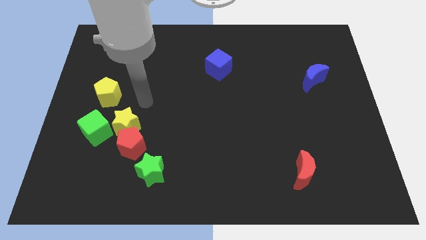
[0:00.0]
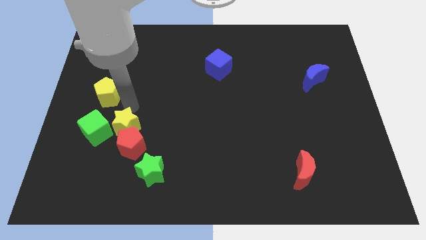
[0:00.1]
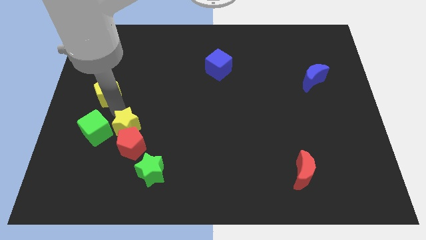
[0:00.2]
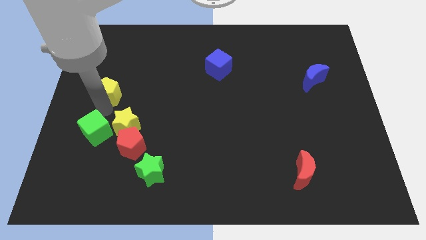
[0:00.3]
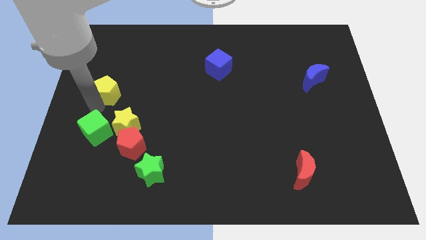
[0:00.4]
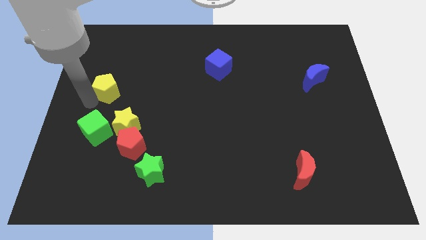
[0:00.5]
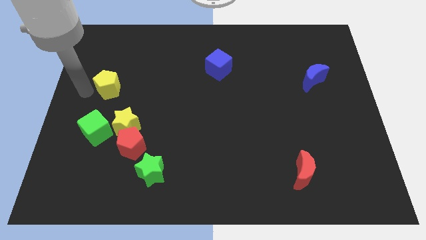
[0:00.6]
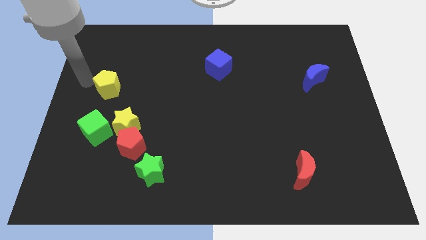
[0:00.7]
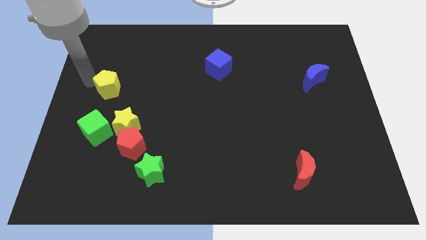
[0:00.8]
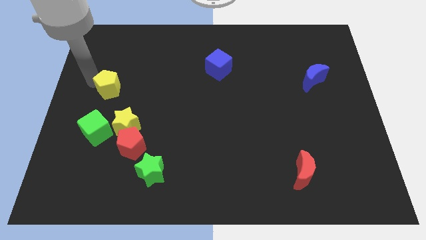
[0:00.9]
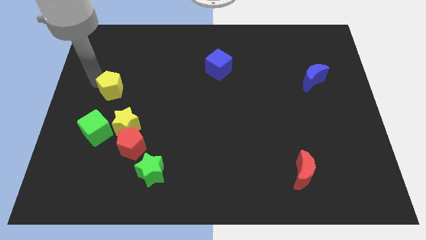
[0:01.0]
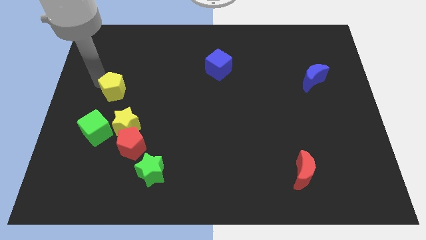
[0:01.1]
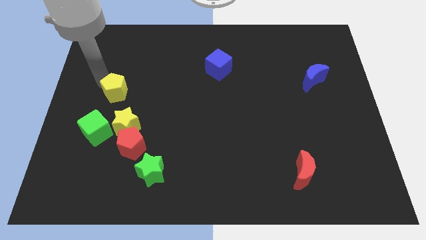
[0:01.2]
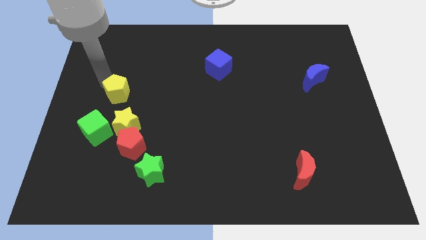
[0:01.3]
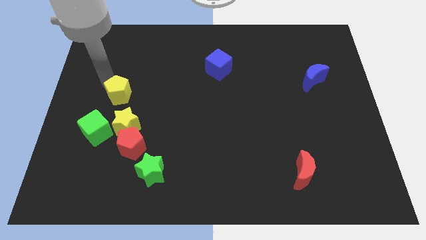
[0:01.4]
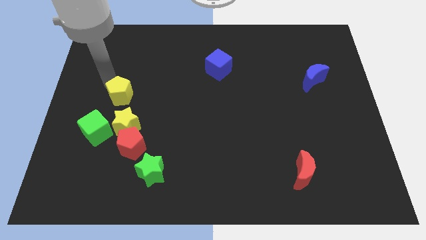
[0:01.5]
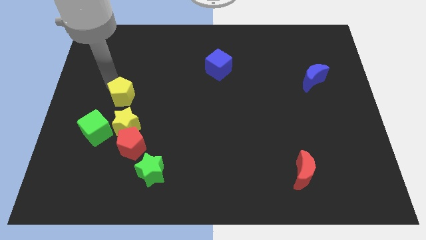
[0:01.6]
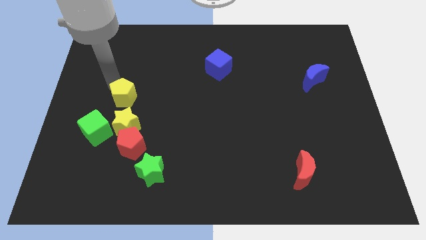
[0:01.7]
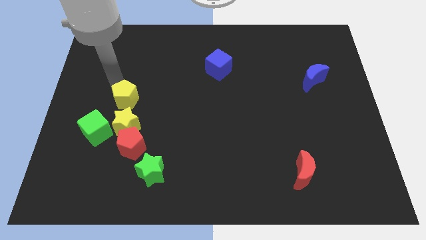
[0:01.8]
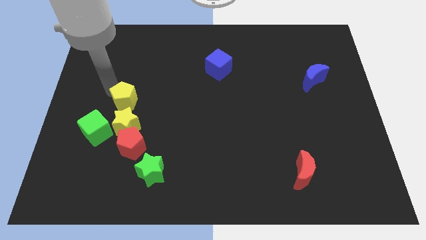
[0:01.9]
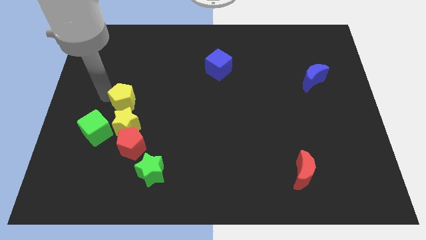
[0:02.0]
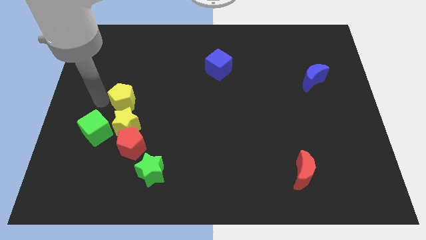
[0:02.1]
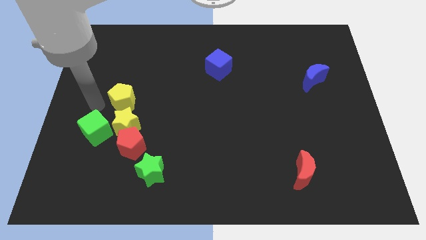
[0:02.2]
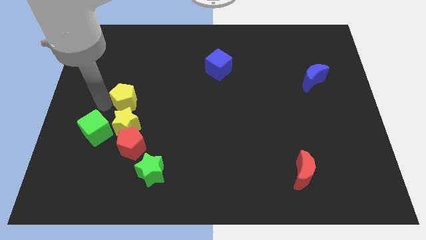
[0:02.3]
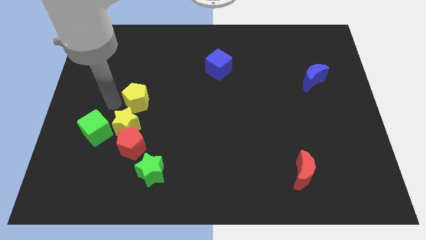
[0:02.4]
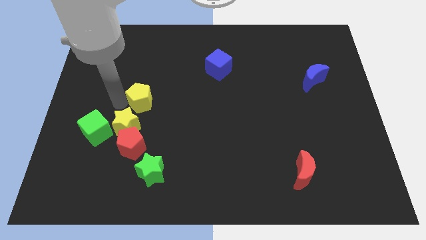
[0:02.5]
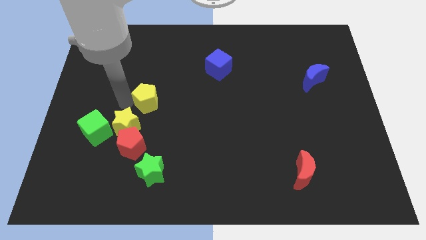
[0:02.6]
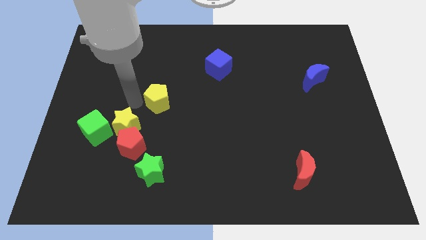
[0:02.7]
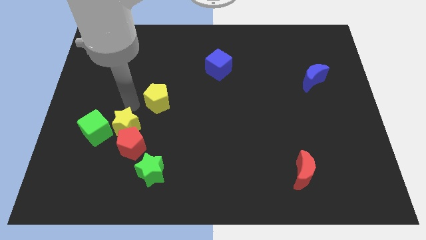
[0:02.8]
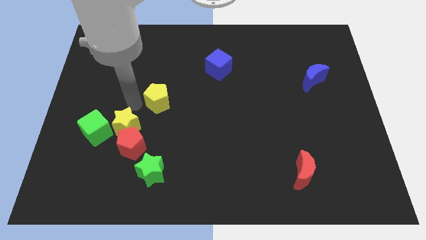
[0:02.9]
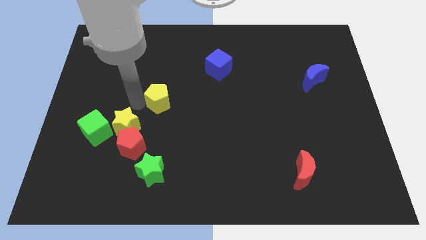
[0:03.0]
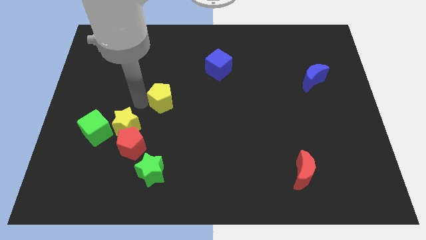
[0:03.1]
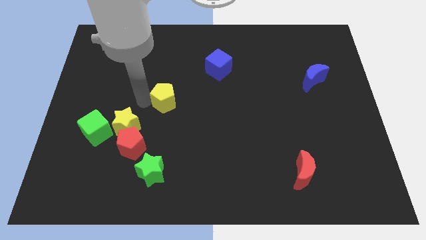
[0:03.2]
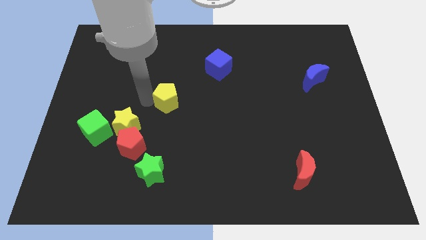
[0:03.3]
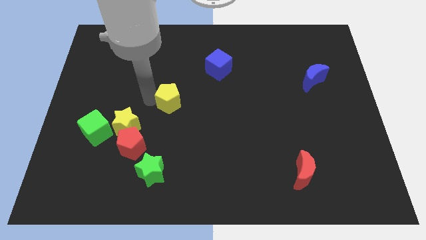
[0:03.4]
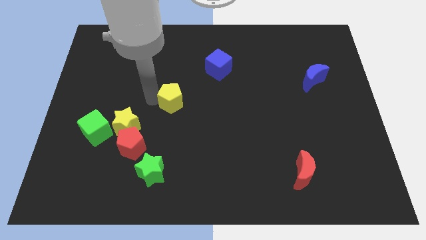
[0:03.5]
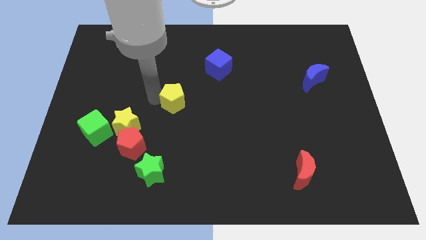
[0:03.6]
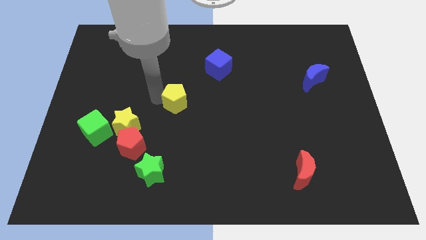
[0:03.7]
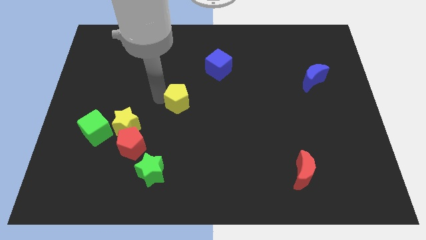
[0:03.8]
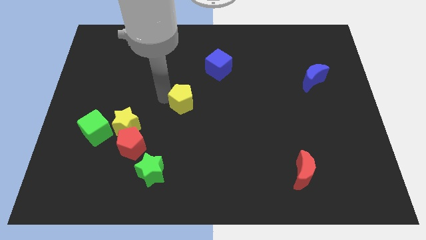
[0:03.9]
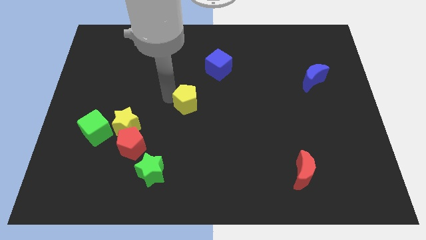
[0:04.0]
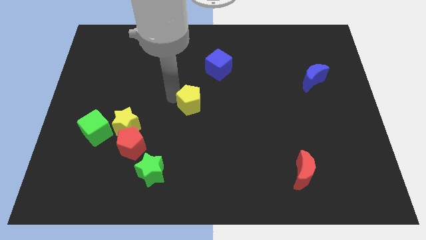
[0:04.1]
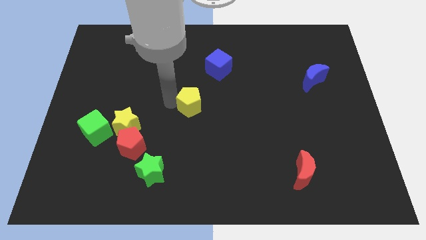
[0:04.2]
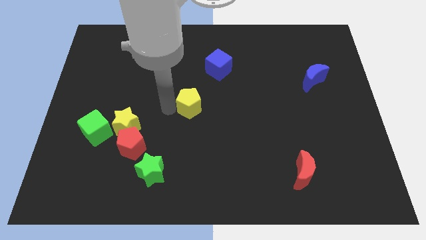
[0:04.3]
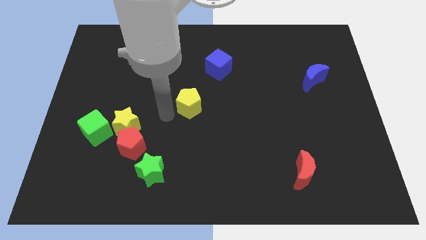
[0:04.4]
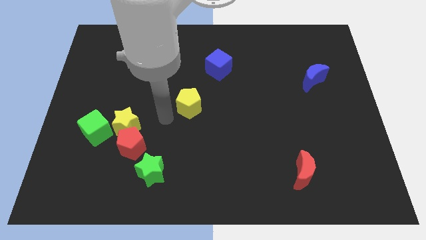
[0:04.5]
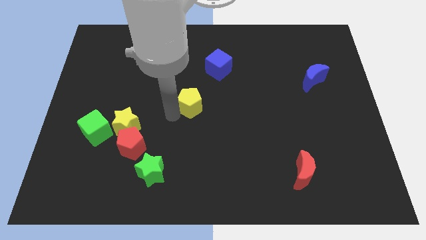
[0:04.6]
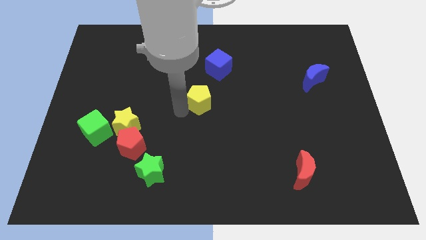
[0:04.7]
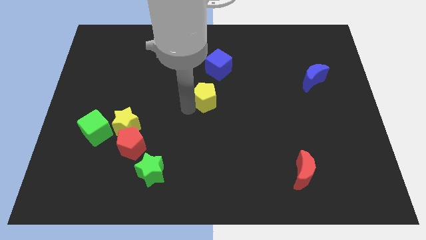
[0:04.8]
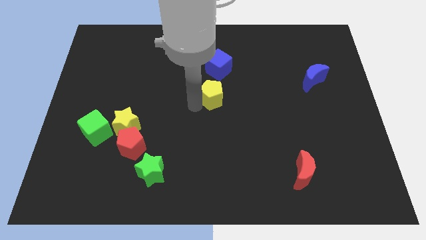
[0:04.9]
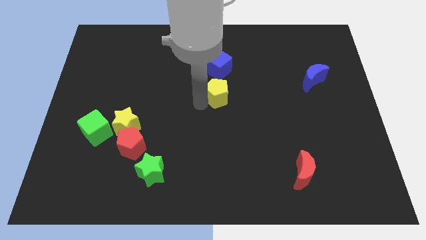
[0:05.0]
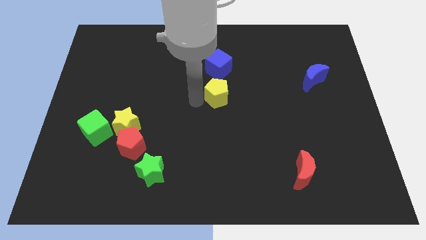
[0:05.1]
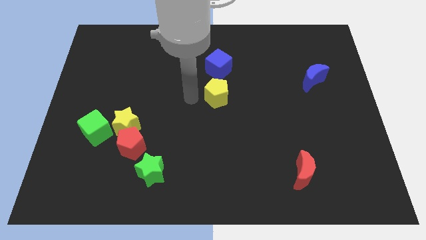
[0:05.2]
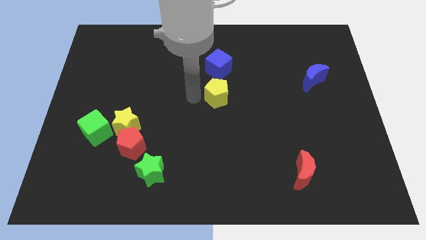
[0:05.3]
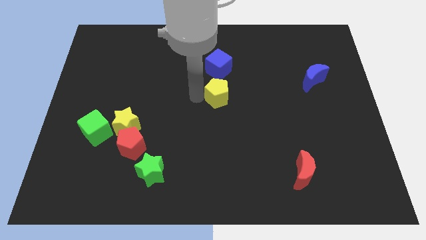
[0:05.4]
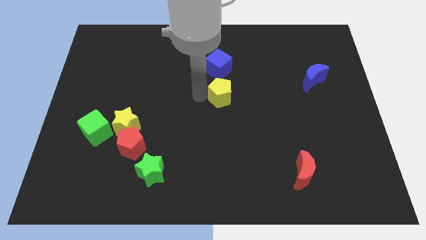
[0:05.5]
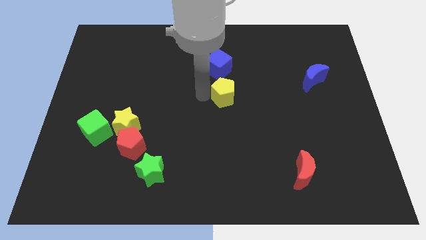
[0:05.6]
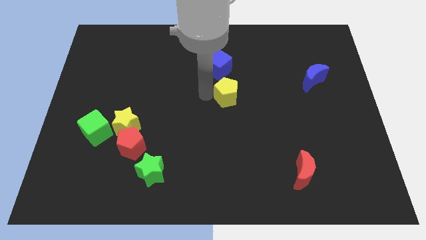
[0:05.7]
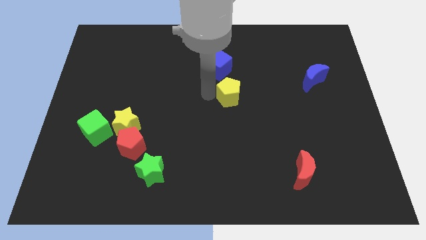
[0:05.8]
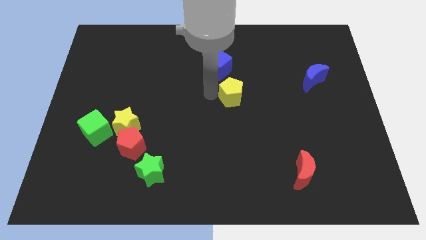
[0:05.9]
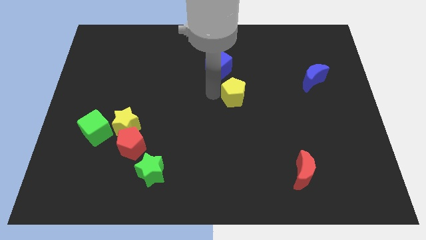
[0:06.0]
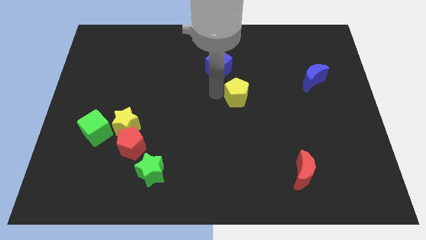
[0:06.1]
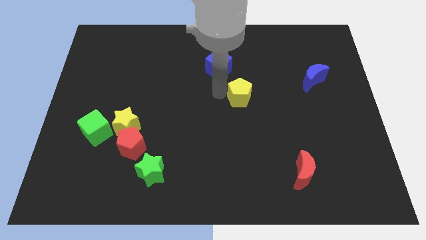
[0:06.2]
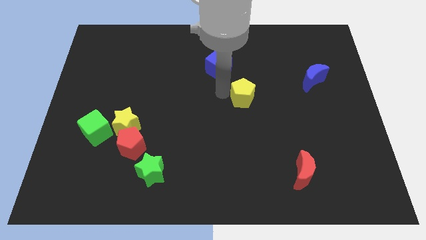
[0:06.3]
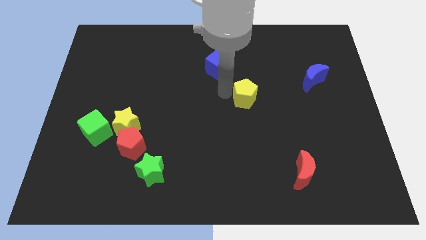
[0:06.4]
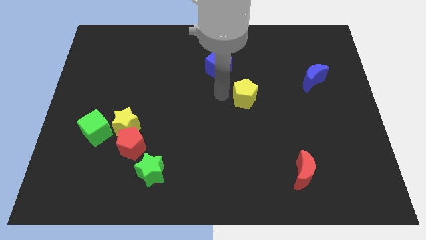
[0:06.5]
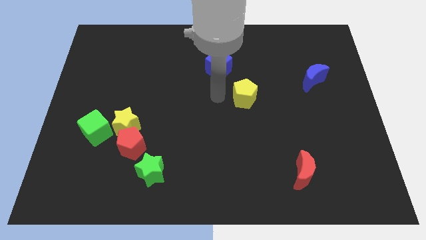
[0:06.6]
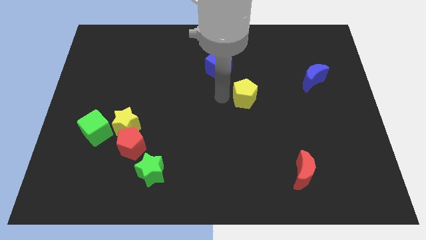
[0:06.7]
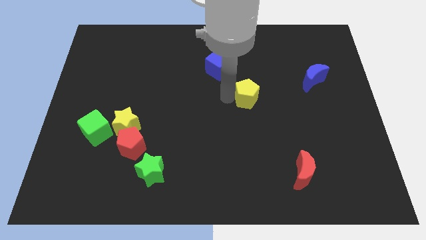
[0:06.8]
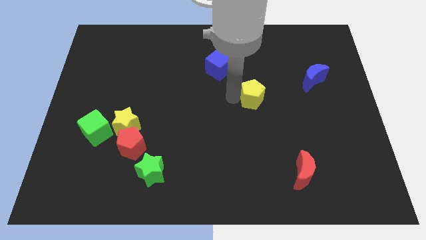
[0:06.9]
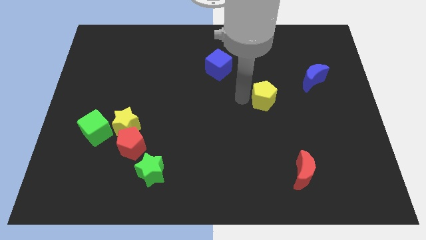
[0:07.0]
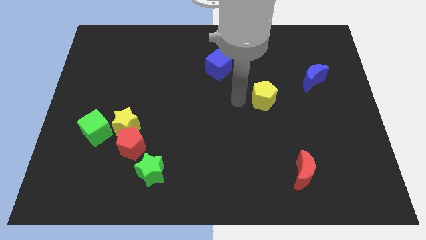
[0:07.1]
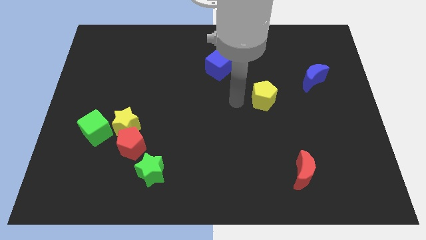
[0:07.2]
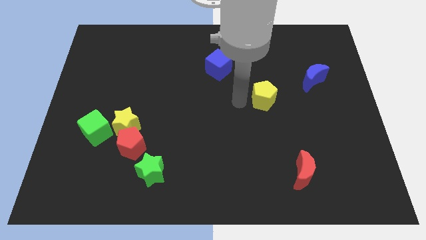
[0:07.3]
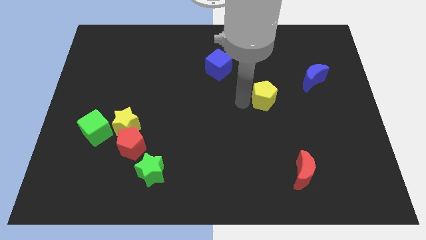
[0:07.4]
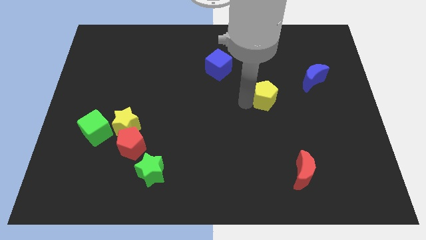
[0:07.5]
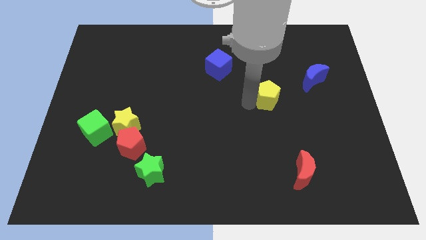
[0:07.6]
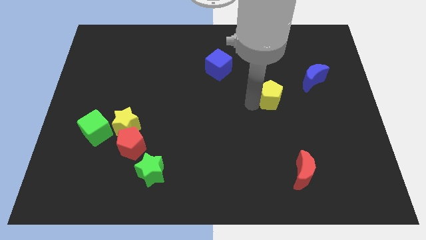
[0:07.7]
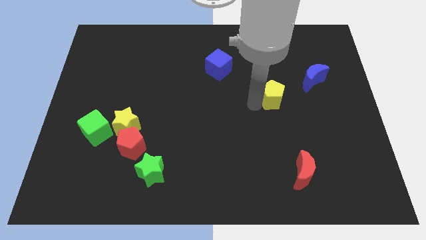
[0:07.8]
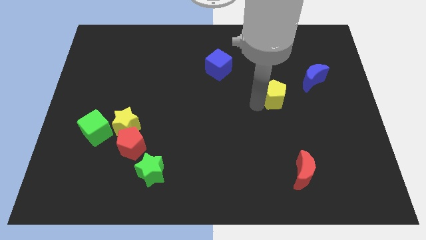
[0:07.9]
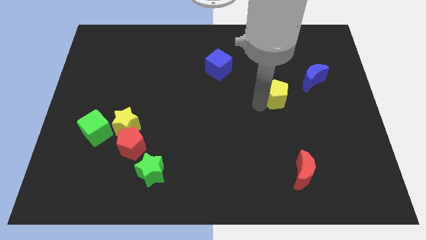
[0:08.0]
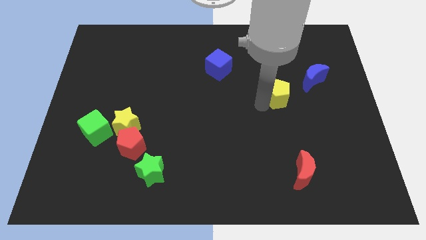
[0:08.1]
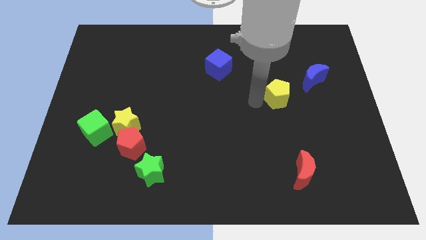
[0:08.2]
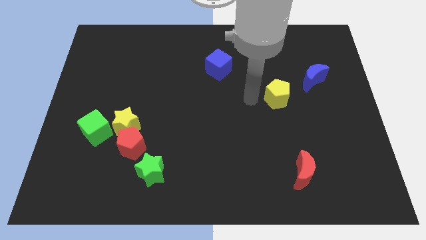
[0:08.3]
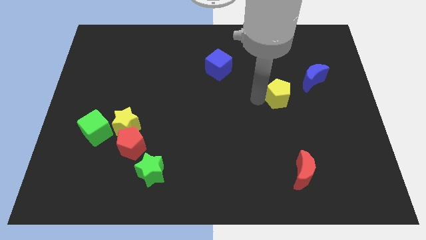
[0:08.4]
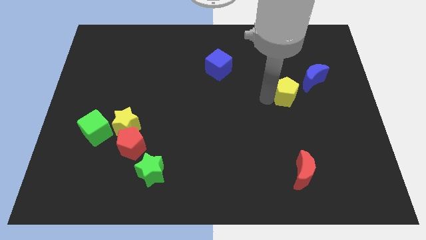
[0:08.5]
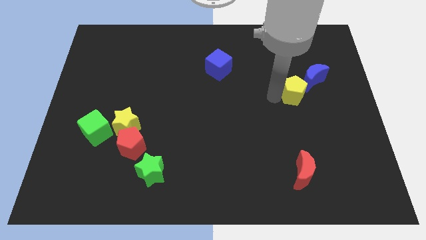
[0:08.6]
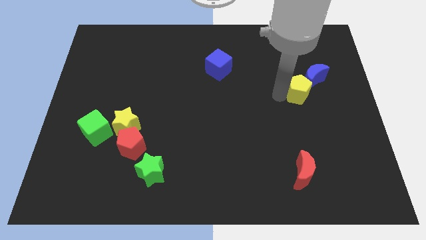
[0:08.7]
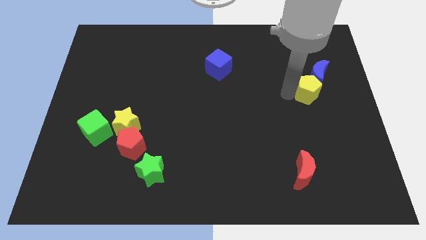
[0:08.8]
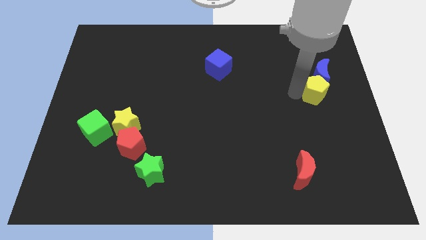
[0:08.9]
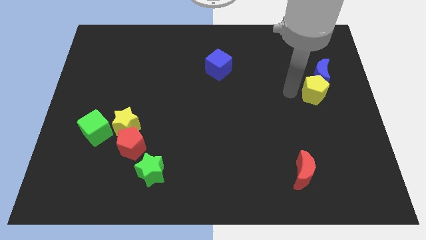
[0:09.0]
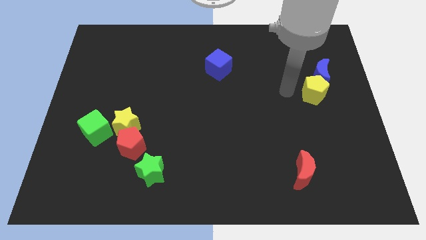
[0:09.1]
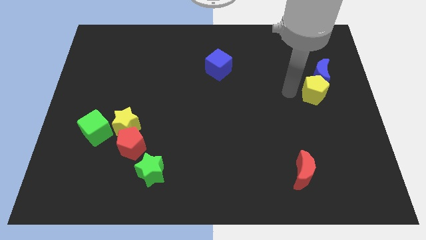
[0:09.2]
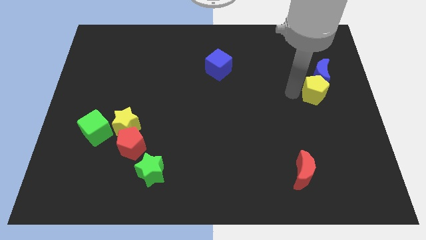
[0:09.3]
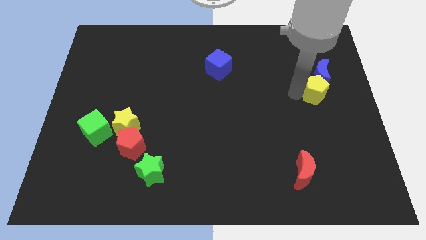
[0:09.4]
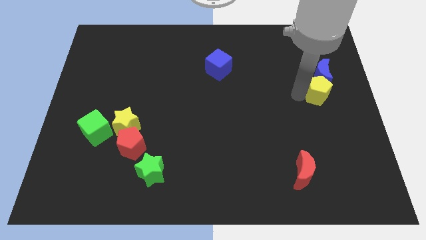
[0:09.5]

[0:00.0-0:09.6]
slide the yellow pentagon to the right side of the board
